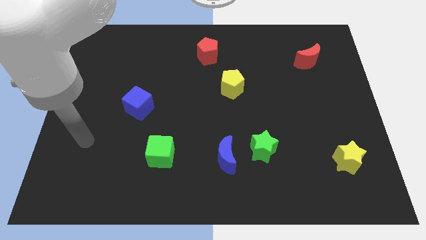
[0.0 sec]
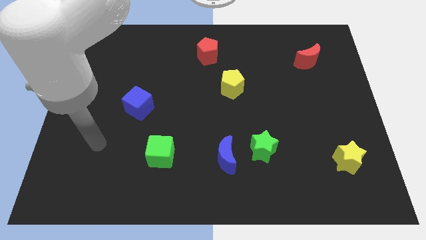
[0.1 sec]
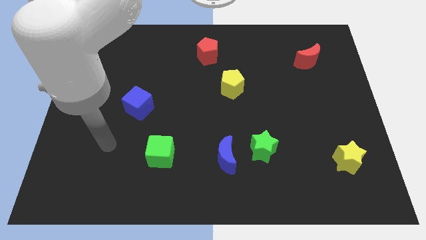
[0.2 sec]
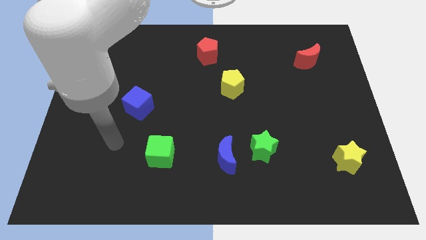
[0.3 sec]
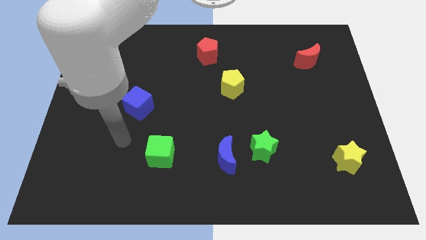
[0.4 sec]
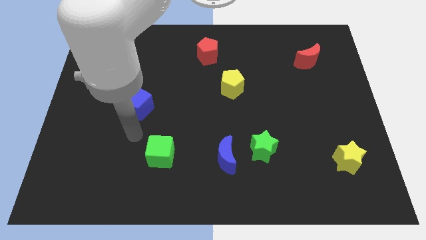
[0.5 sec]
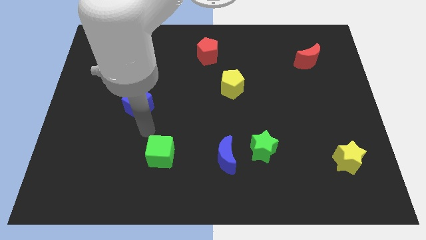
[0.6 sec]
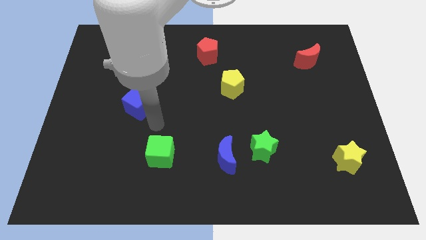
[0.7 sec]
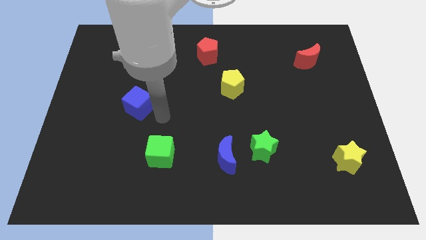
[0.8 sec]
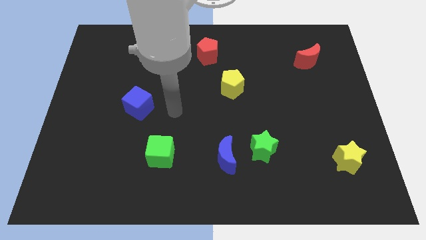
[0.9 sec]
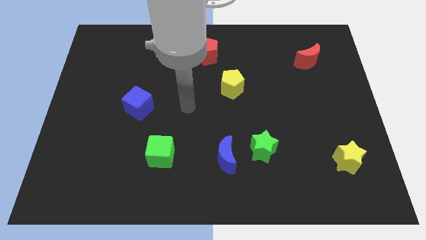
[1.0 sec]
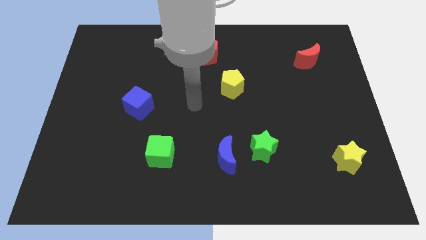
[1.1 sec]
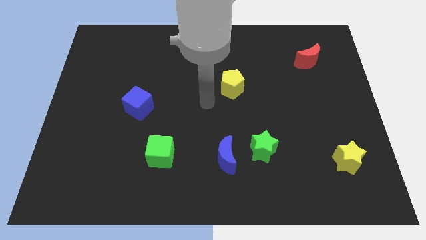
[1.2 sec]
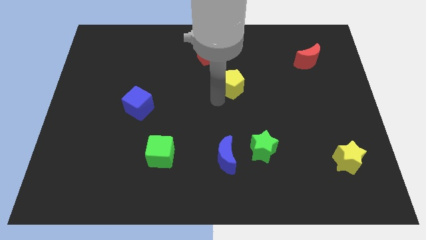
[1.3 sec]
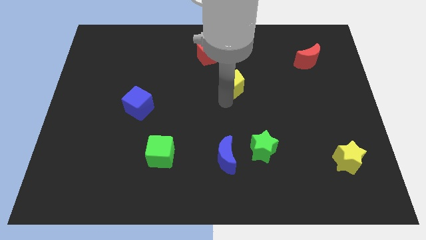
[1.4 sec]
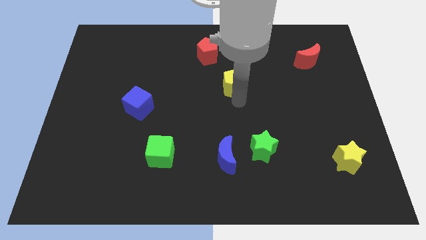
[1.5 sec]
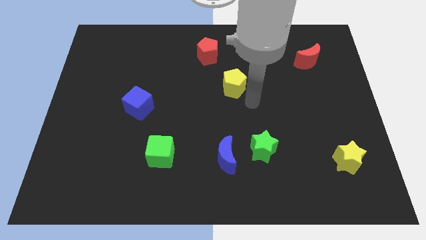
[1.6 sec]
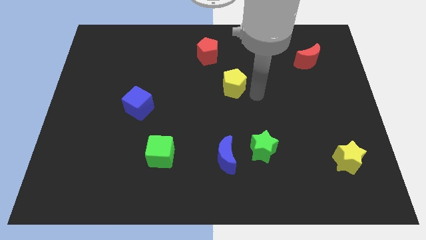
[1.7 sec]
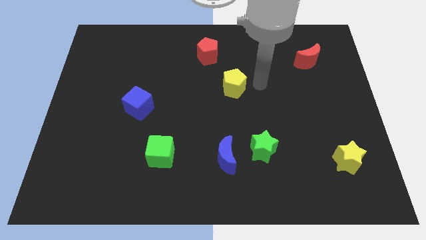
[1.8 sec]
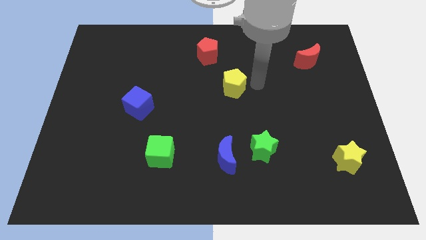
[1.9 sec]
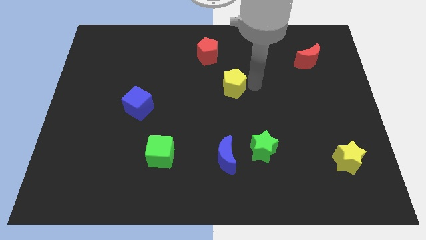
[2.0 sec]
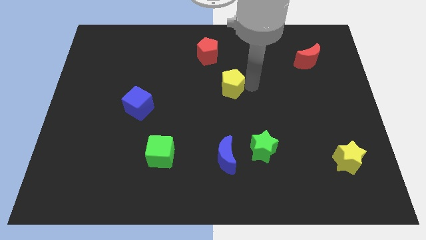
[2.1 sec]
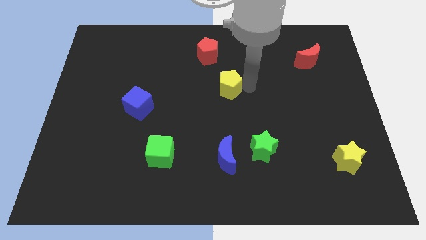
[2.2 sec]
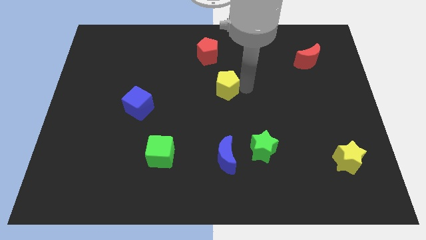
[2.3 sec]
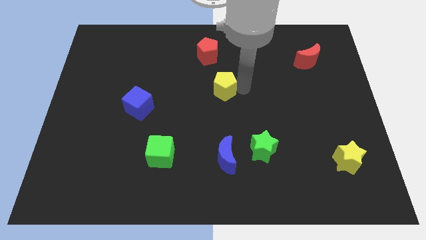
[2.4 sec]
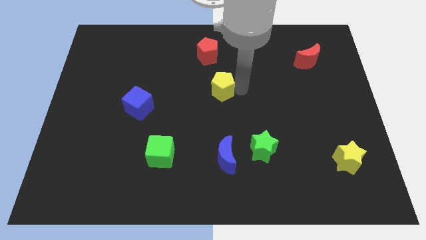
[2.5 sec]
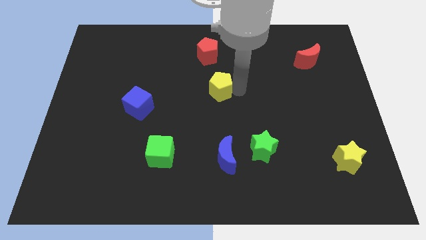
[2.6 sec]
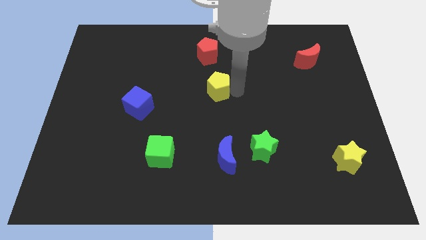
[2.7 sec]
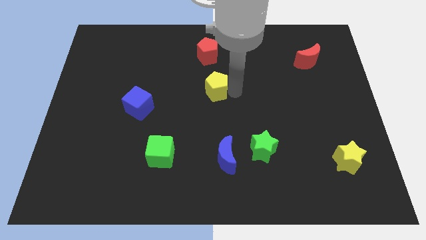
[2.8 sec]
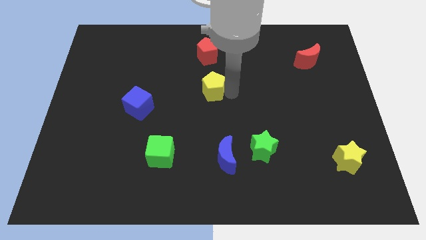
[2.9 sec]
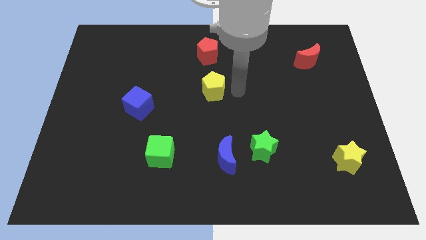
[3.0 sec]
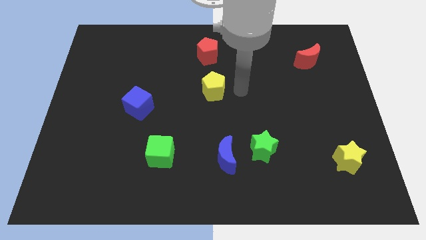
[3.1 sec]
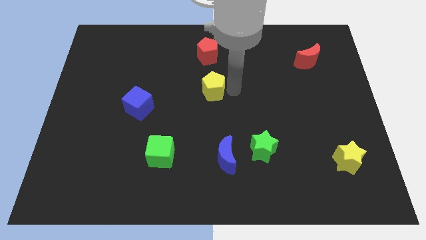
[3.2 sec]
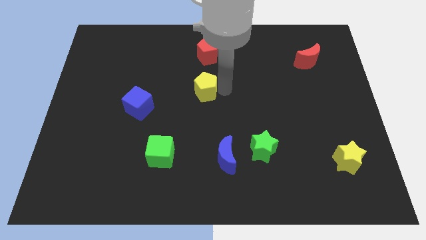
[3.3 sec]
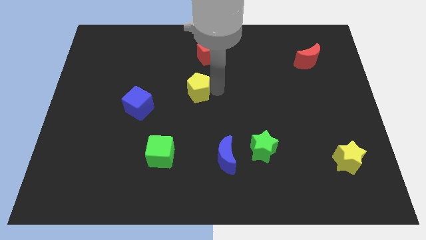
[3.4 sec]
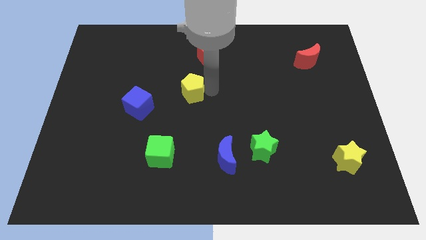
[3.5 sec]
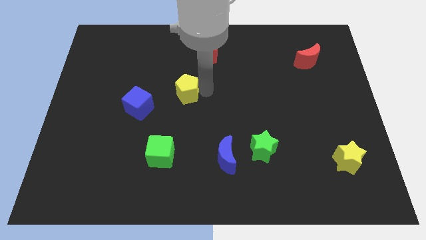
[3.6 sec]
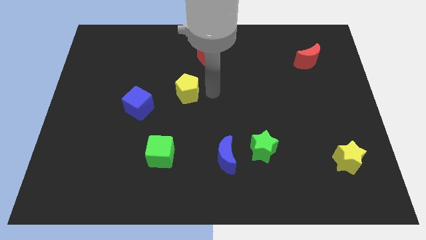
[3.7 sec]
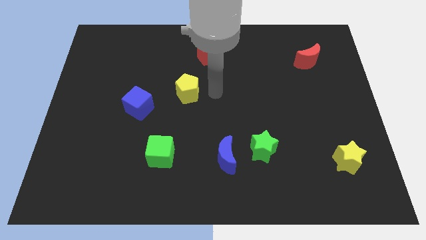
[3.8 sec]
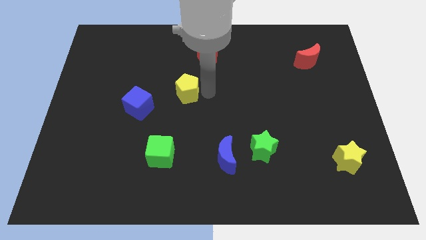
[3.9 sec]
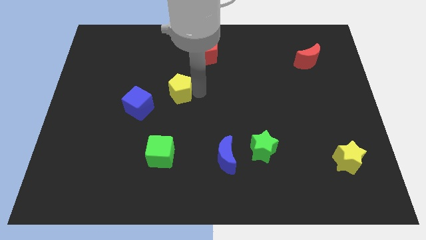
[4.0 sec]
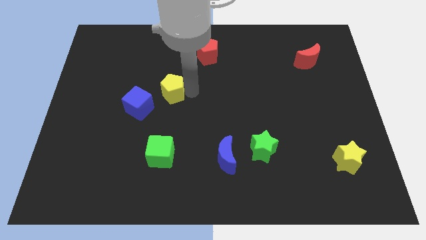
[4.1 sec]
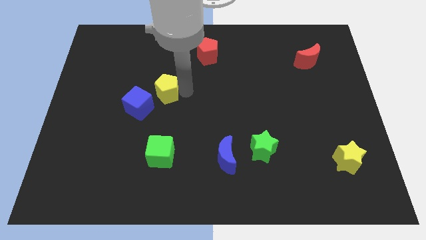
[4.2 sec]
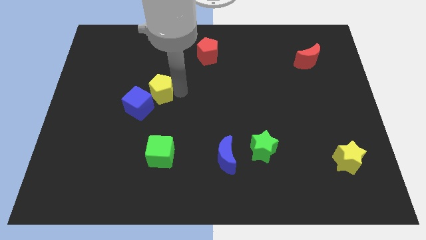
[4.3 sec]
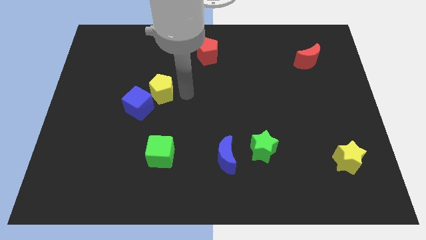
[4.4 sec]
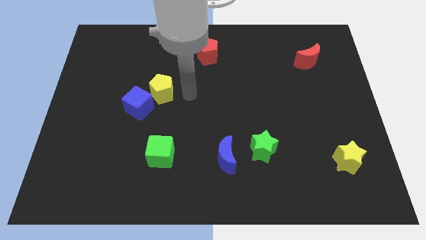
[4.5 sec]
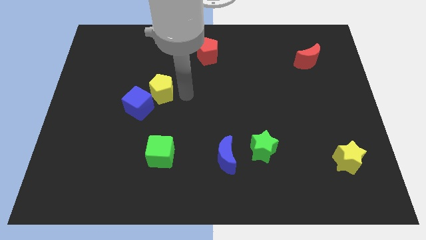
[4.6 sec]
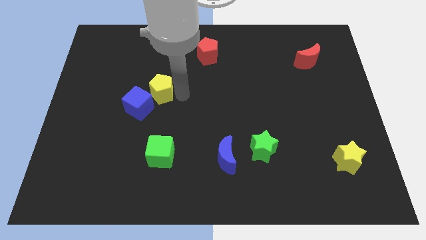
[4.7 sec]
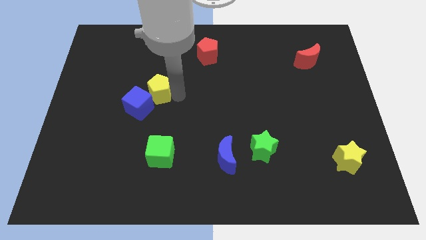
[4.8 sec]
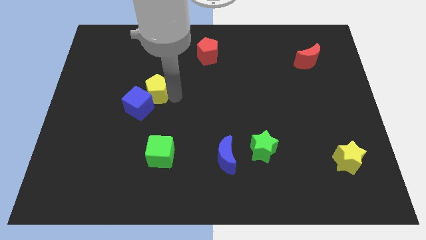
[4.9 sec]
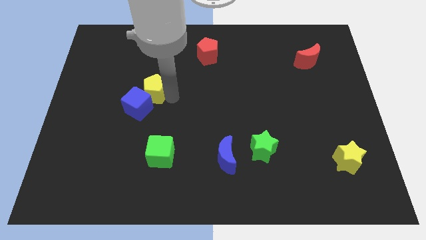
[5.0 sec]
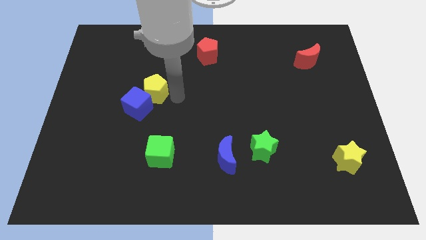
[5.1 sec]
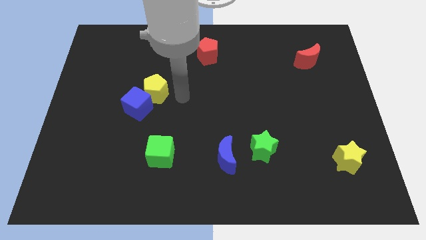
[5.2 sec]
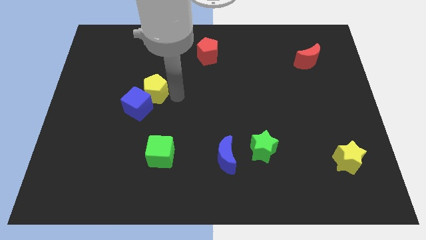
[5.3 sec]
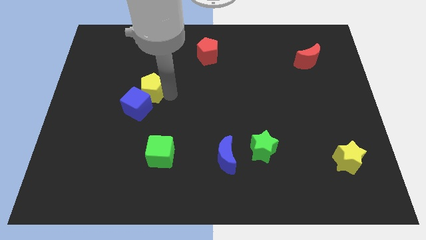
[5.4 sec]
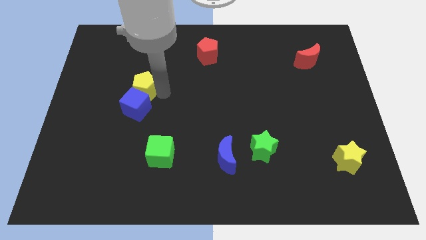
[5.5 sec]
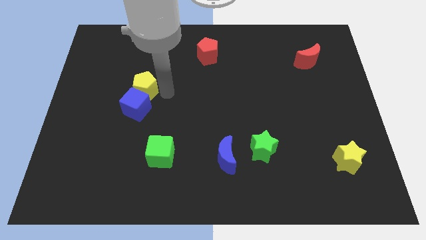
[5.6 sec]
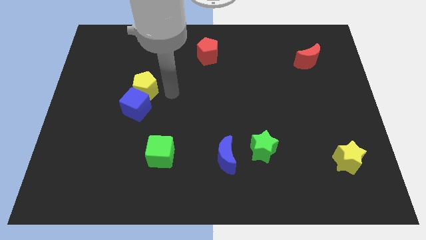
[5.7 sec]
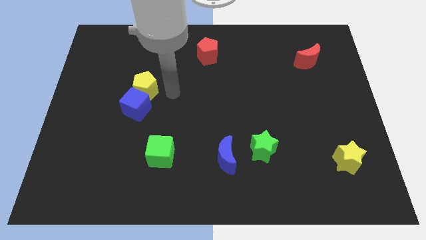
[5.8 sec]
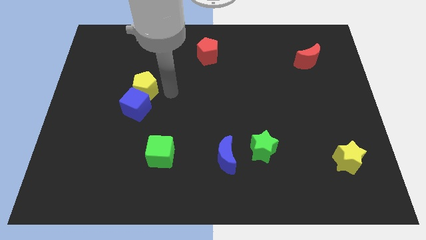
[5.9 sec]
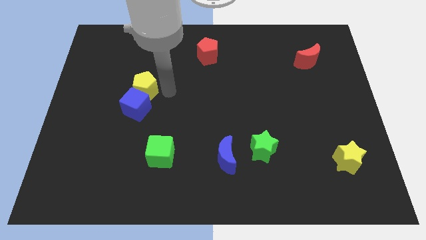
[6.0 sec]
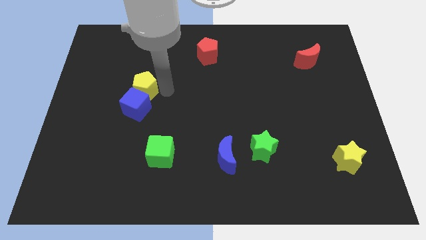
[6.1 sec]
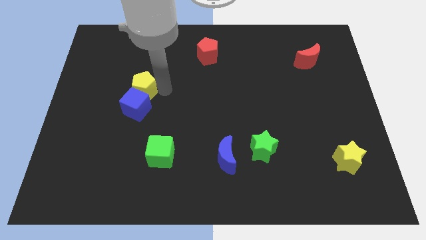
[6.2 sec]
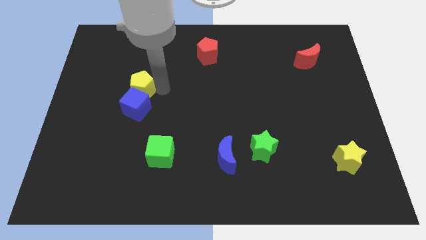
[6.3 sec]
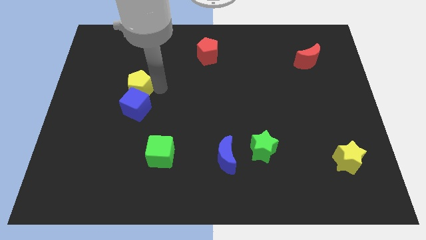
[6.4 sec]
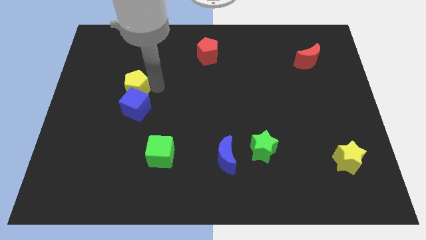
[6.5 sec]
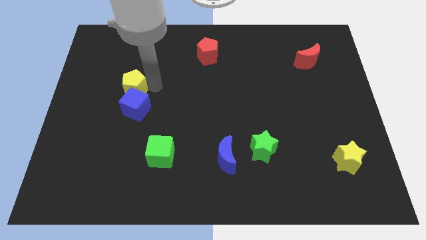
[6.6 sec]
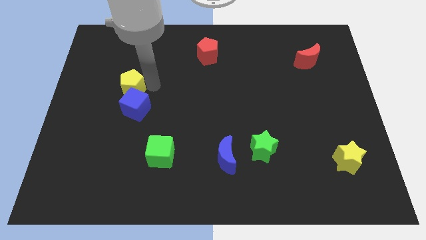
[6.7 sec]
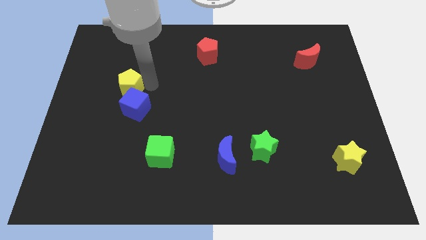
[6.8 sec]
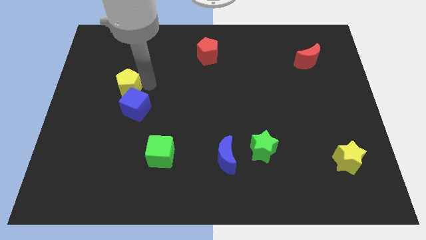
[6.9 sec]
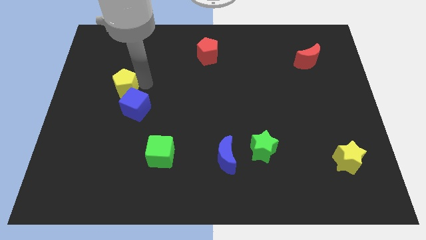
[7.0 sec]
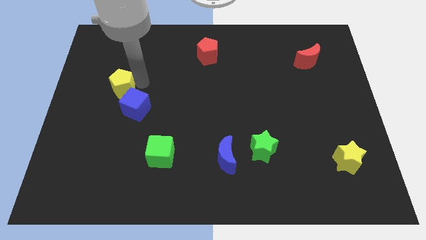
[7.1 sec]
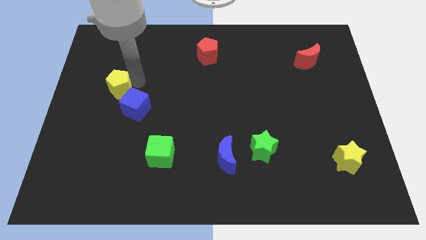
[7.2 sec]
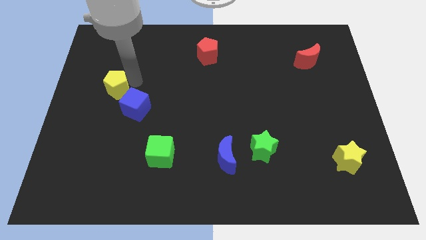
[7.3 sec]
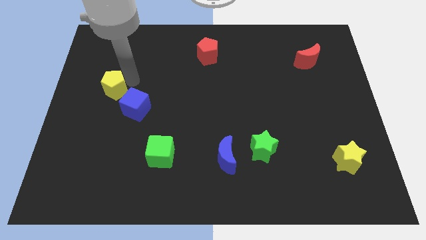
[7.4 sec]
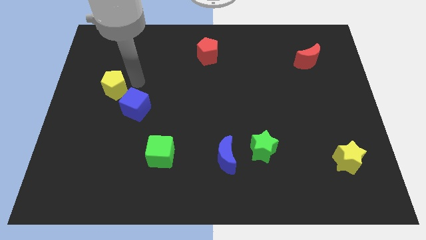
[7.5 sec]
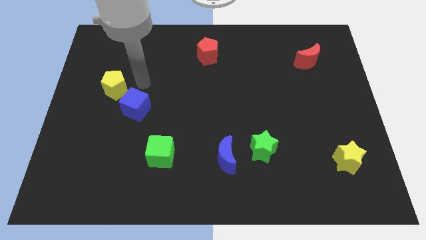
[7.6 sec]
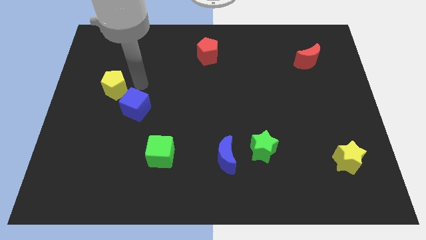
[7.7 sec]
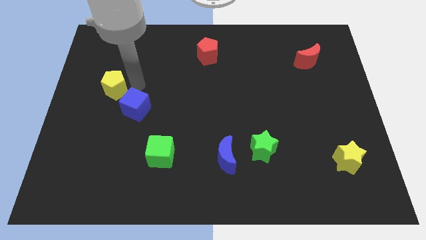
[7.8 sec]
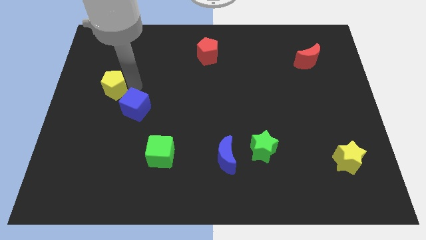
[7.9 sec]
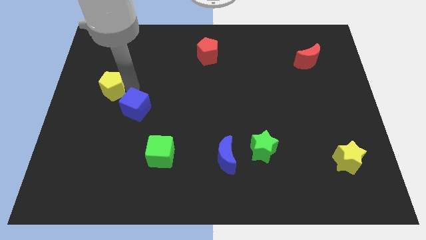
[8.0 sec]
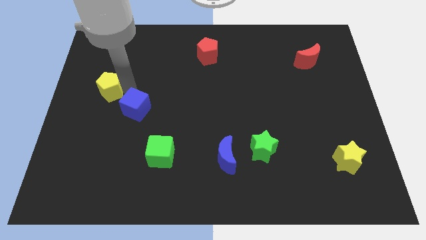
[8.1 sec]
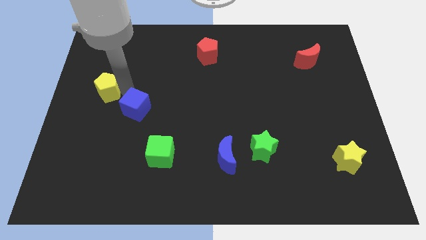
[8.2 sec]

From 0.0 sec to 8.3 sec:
put the yellow pentagon to the left side of the board
